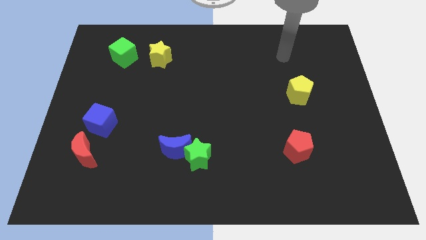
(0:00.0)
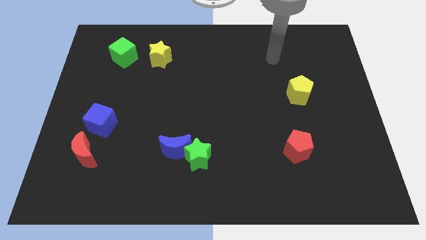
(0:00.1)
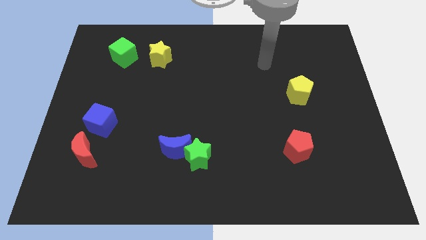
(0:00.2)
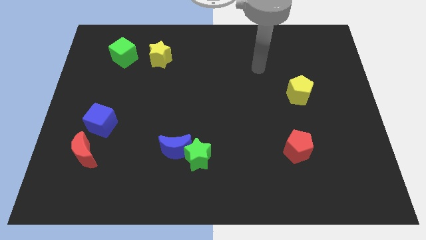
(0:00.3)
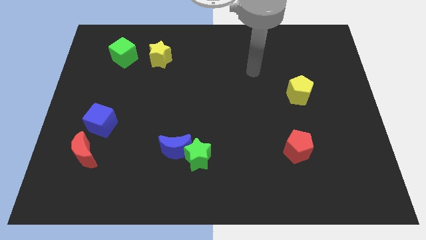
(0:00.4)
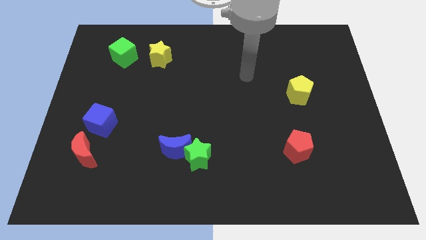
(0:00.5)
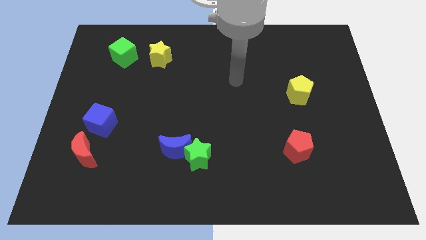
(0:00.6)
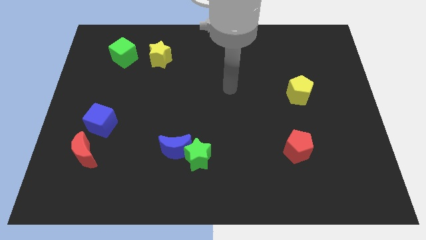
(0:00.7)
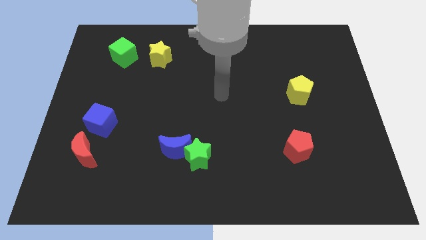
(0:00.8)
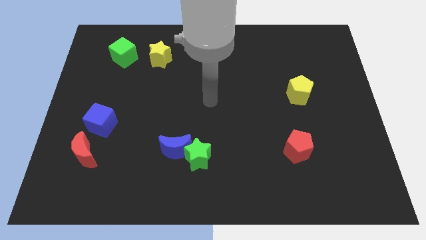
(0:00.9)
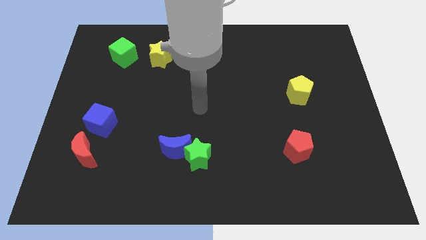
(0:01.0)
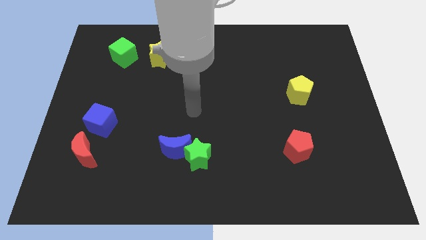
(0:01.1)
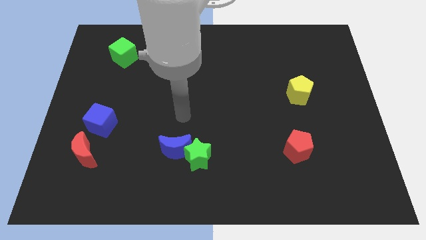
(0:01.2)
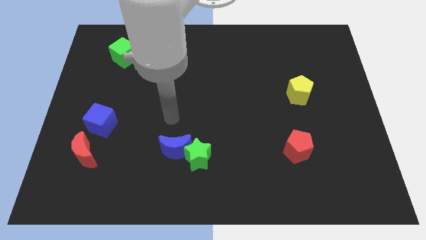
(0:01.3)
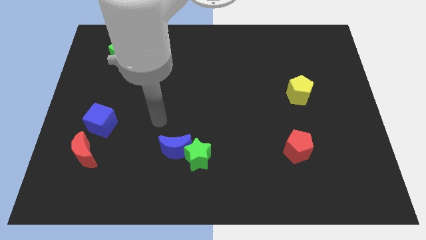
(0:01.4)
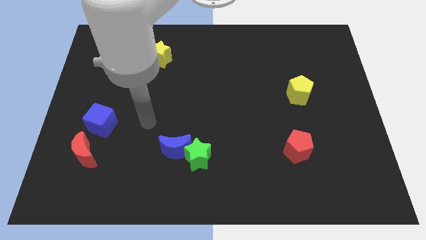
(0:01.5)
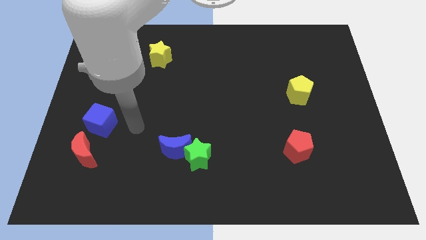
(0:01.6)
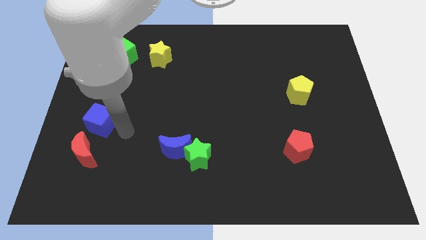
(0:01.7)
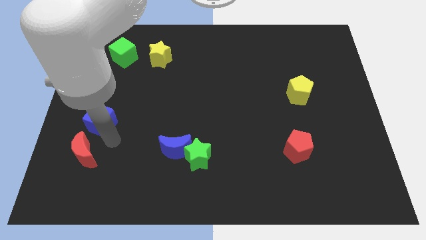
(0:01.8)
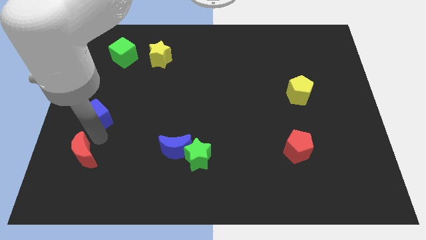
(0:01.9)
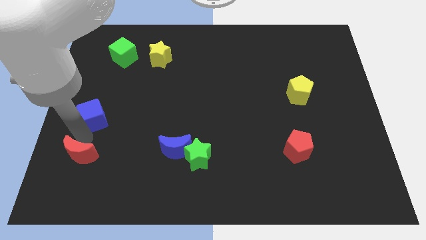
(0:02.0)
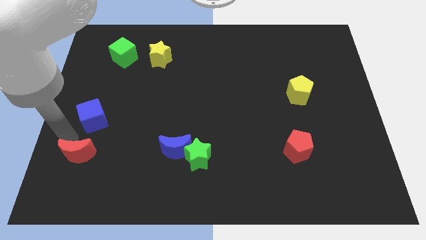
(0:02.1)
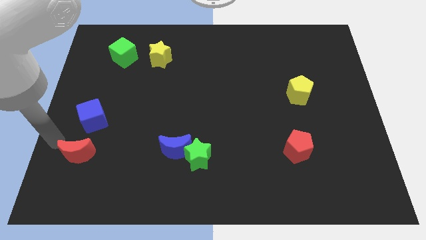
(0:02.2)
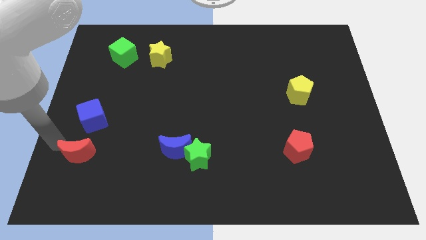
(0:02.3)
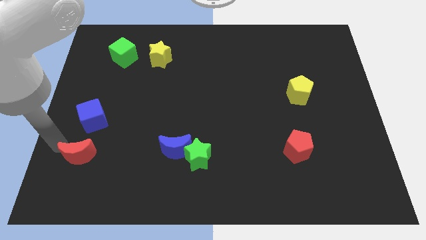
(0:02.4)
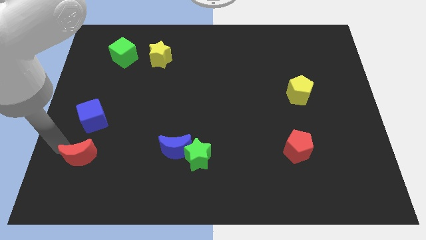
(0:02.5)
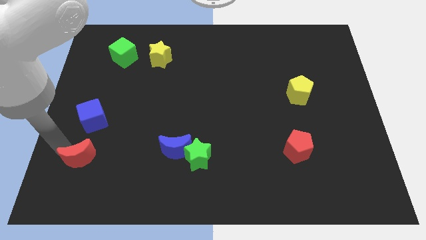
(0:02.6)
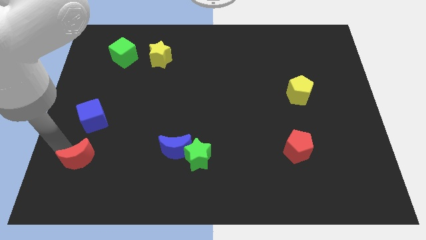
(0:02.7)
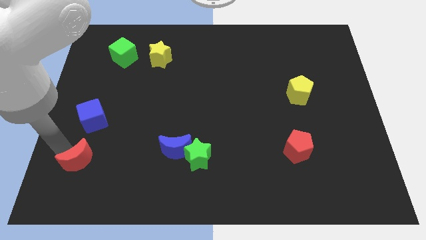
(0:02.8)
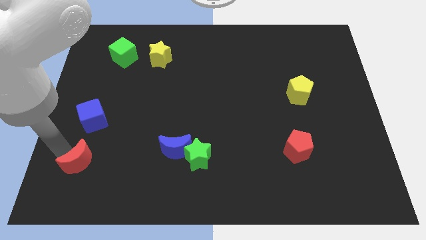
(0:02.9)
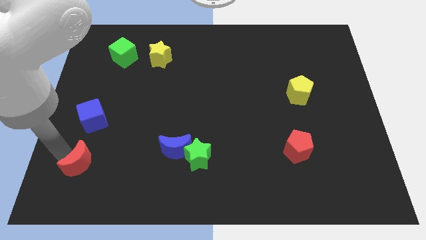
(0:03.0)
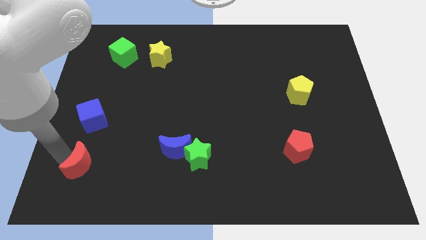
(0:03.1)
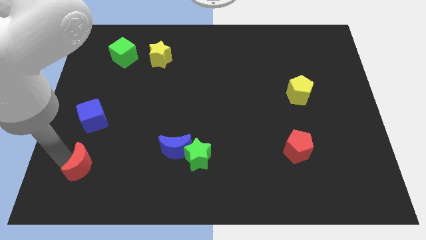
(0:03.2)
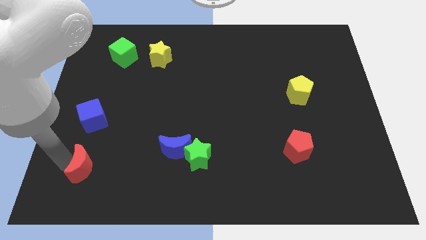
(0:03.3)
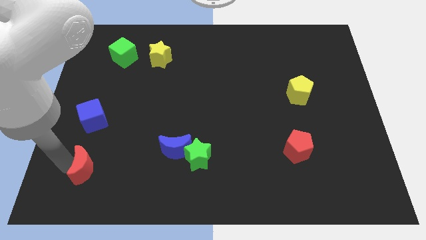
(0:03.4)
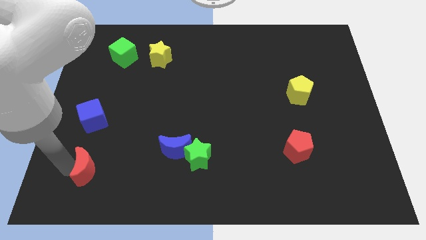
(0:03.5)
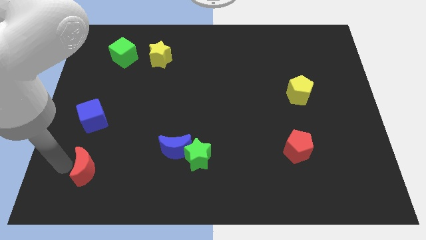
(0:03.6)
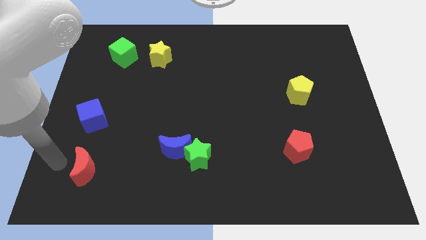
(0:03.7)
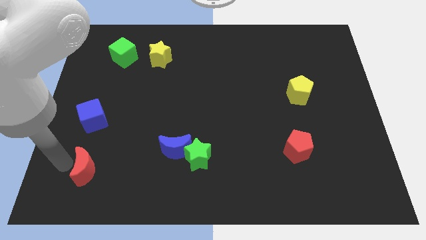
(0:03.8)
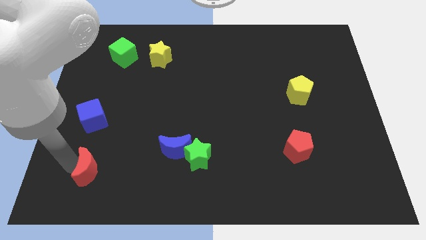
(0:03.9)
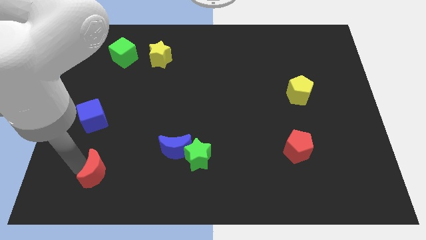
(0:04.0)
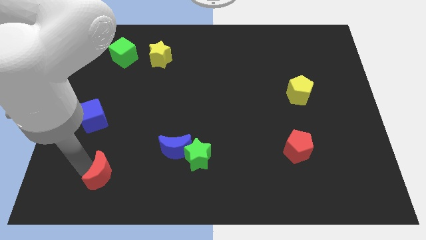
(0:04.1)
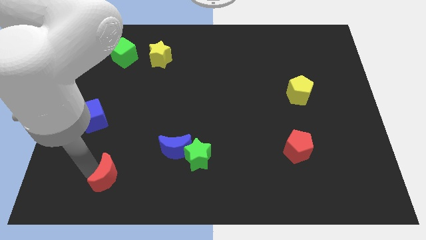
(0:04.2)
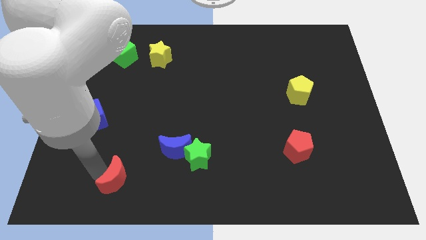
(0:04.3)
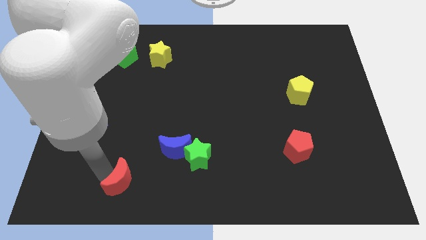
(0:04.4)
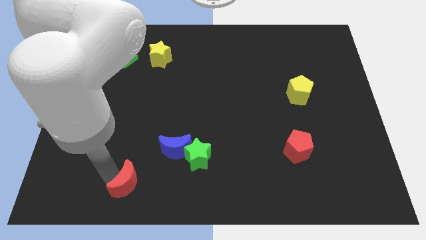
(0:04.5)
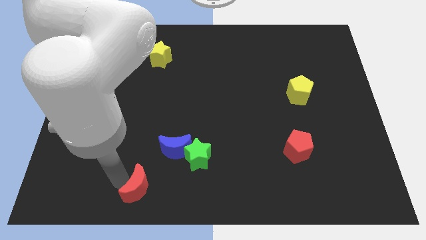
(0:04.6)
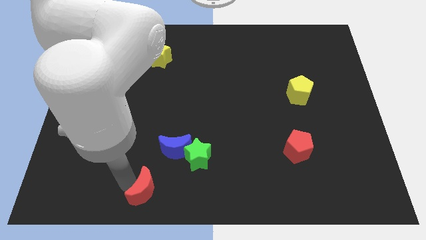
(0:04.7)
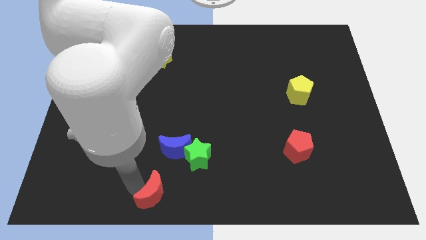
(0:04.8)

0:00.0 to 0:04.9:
slide the red moon to the bottom

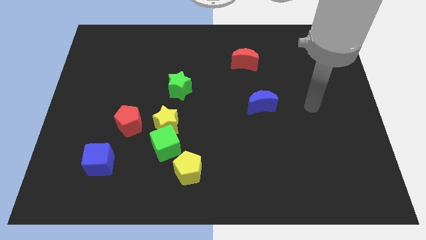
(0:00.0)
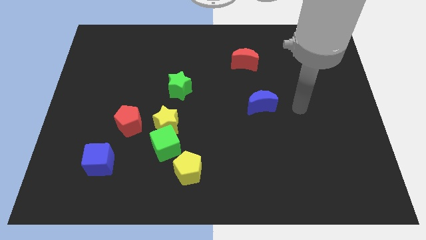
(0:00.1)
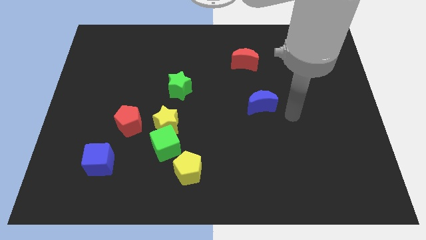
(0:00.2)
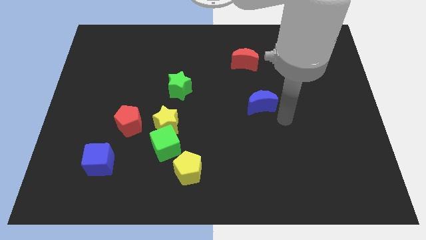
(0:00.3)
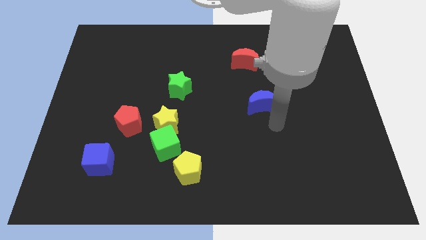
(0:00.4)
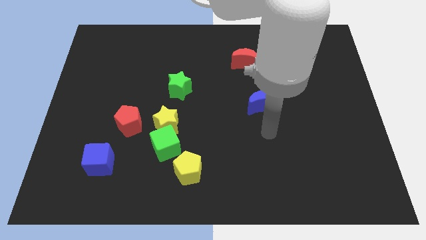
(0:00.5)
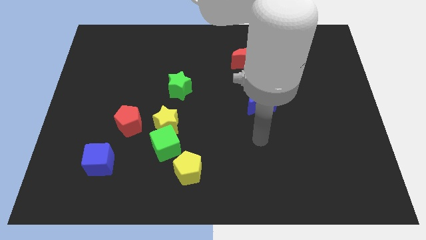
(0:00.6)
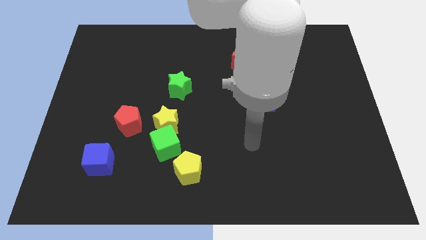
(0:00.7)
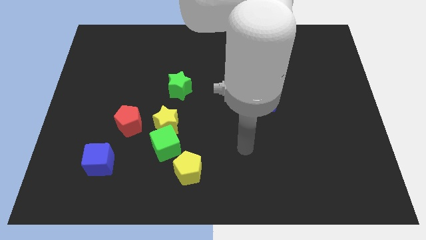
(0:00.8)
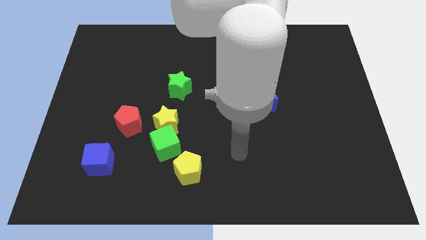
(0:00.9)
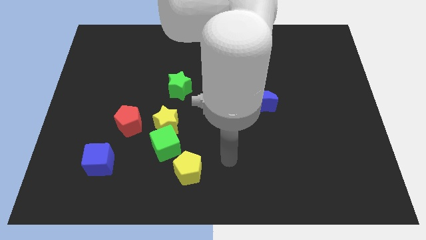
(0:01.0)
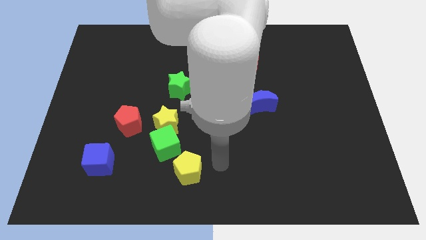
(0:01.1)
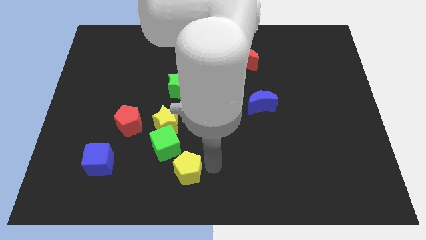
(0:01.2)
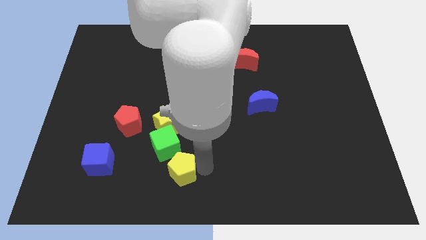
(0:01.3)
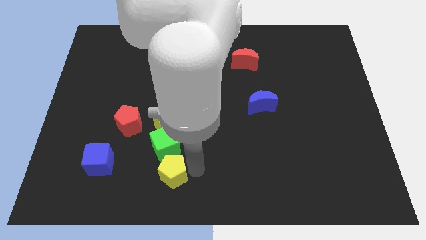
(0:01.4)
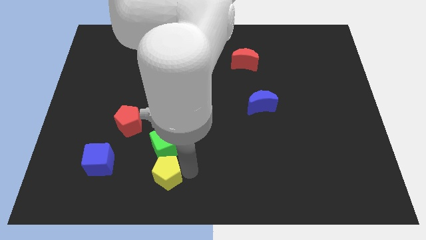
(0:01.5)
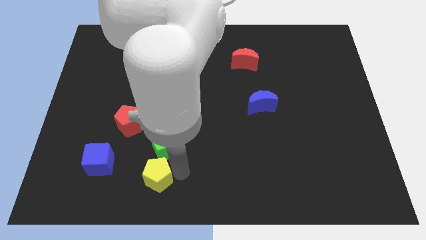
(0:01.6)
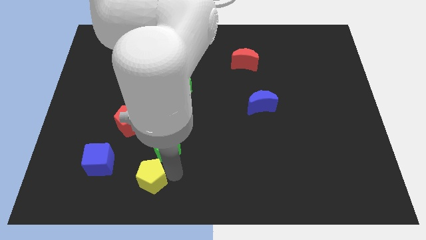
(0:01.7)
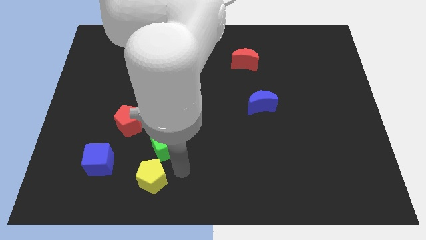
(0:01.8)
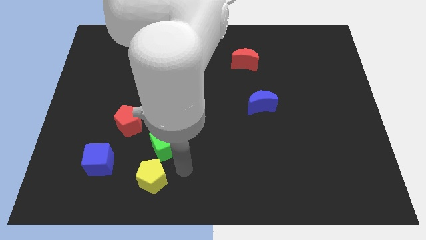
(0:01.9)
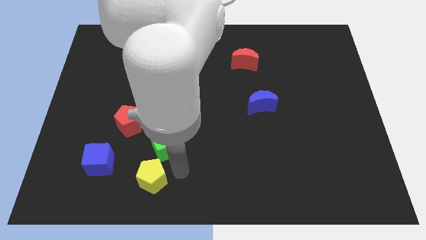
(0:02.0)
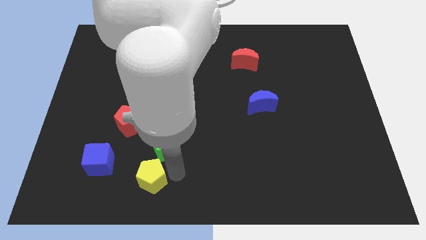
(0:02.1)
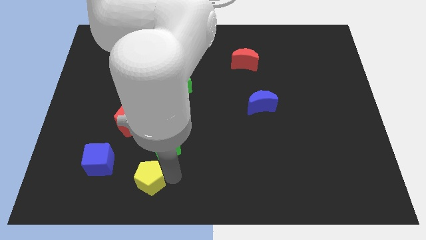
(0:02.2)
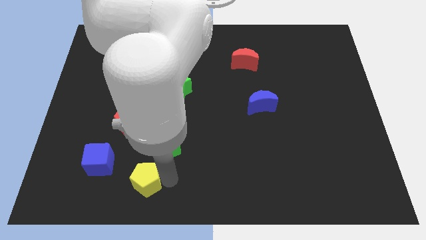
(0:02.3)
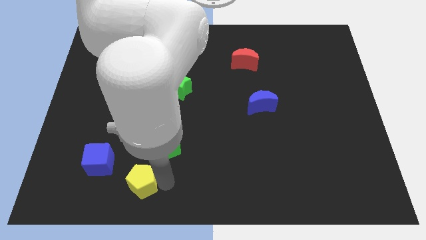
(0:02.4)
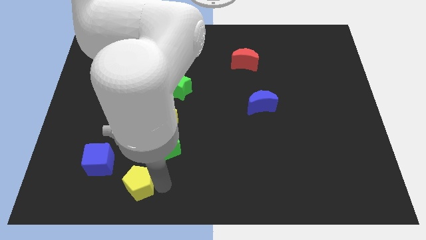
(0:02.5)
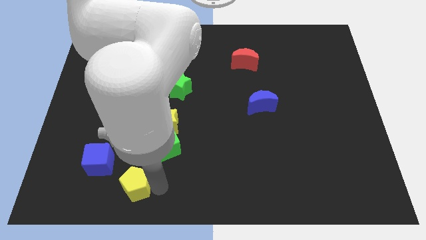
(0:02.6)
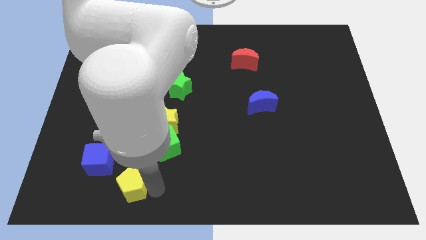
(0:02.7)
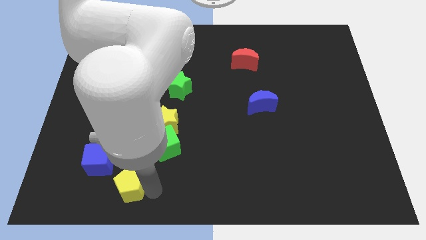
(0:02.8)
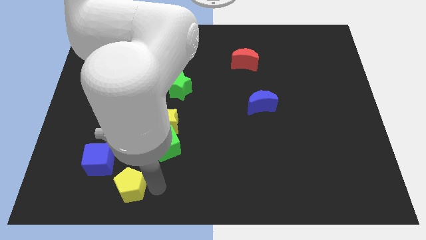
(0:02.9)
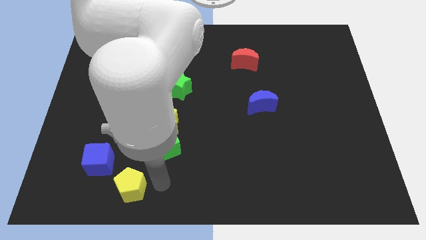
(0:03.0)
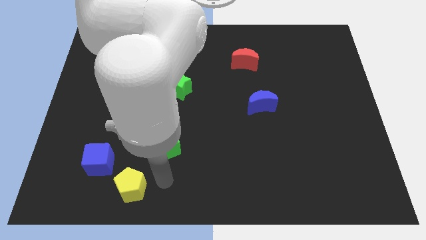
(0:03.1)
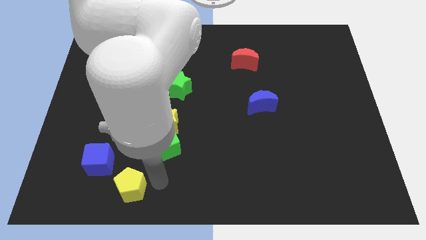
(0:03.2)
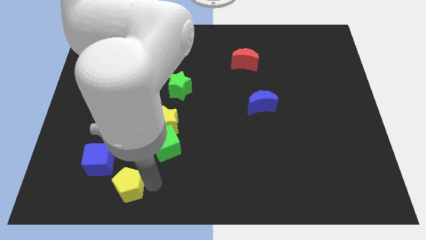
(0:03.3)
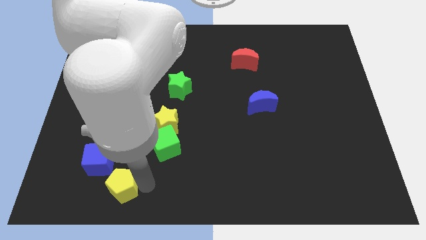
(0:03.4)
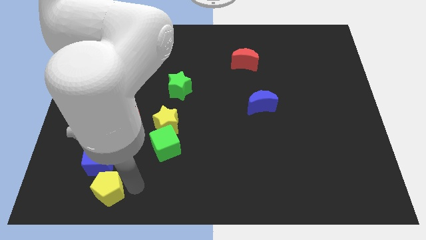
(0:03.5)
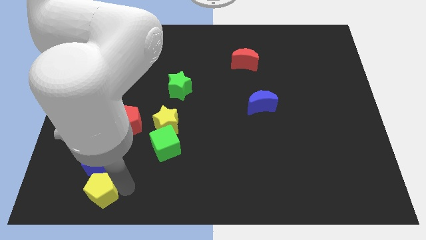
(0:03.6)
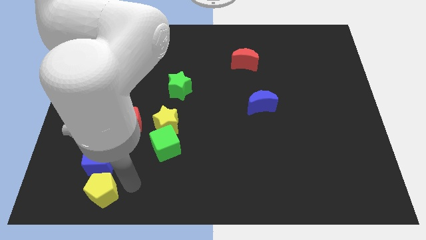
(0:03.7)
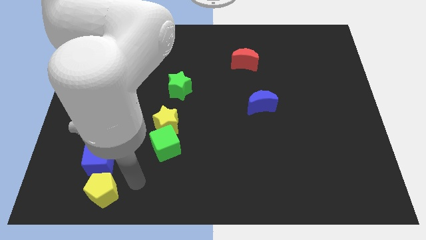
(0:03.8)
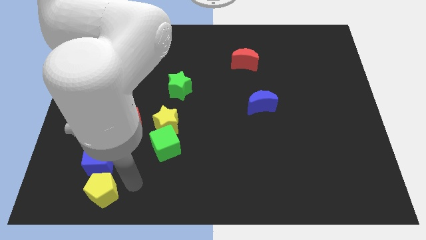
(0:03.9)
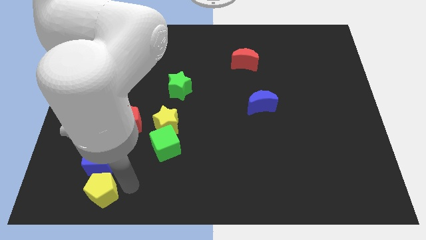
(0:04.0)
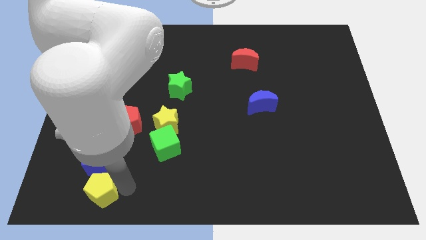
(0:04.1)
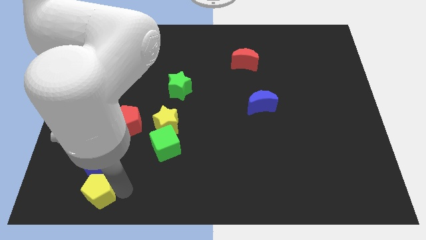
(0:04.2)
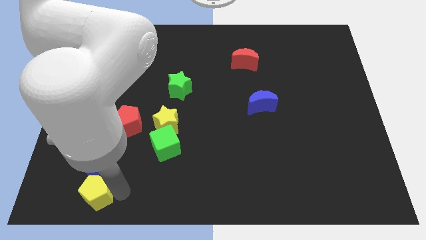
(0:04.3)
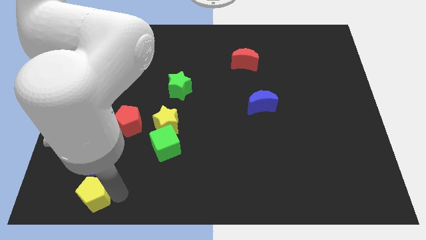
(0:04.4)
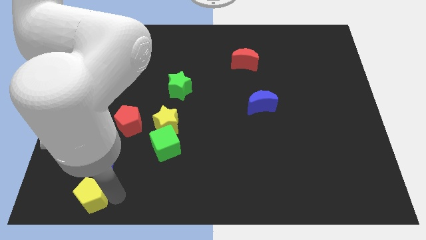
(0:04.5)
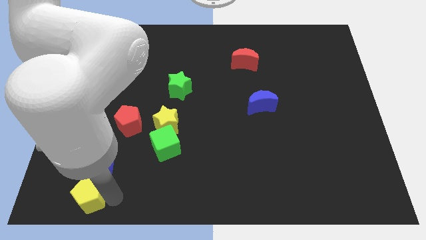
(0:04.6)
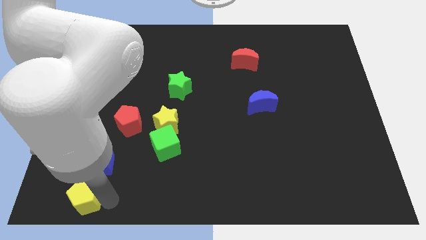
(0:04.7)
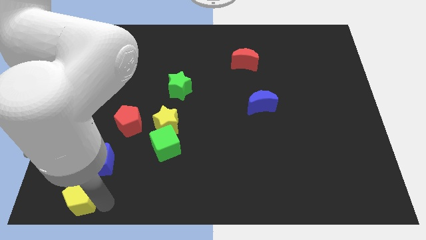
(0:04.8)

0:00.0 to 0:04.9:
push the yellow pentagon to the bottom left of the board
